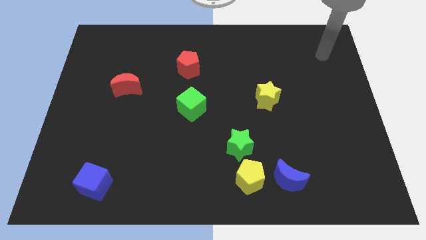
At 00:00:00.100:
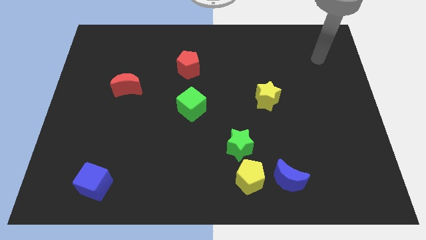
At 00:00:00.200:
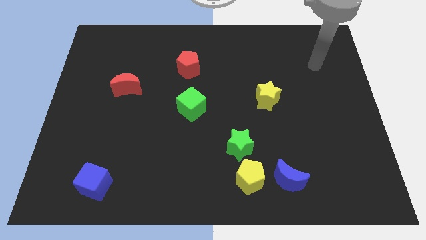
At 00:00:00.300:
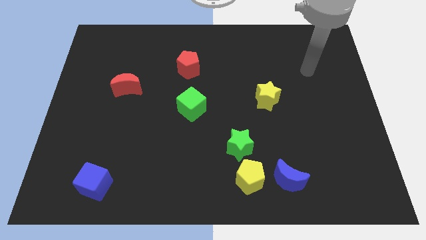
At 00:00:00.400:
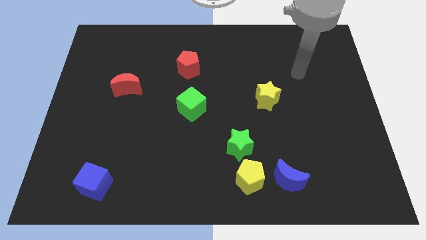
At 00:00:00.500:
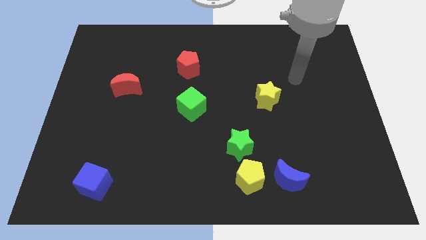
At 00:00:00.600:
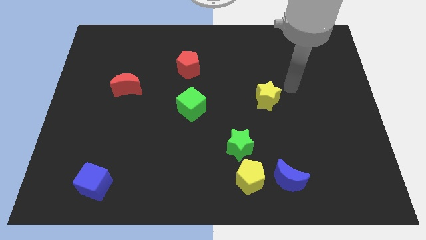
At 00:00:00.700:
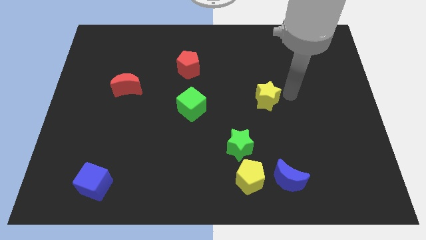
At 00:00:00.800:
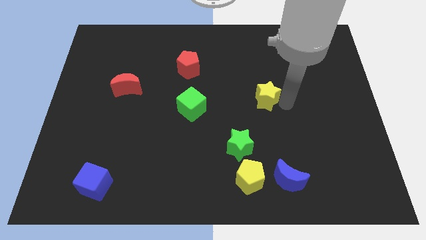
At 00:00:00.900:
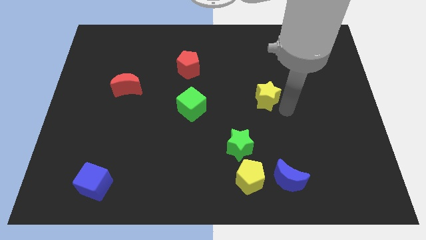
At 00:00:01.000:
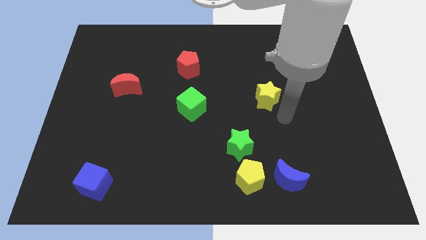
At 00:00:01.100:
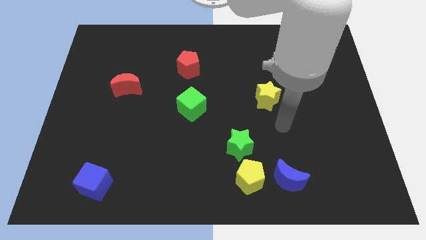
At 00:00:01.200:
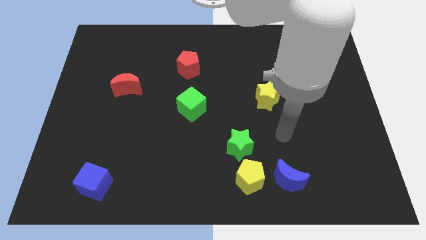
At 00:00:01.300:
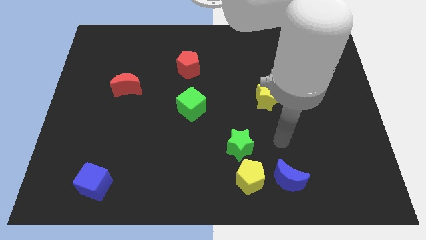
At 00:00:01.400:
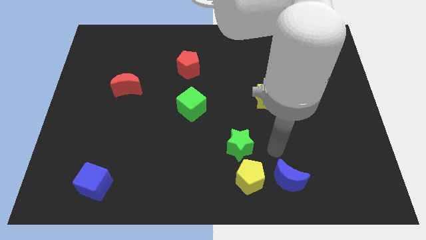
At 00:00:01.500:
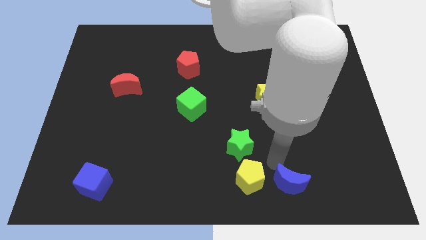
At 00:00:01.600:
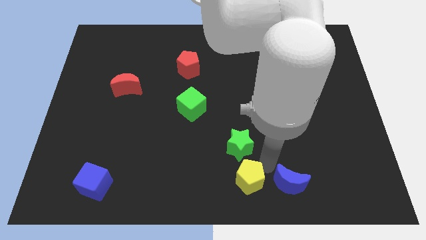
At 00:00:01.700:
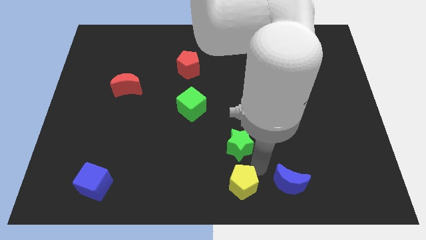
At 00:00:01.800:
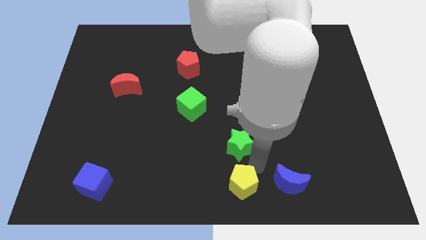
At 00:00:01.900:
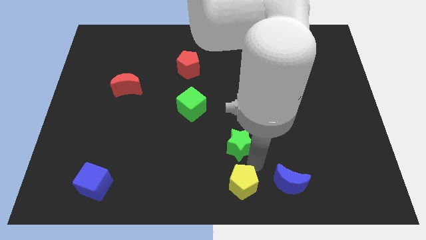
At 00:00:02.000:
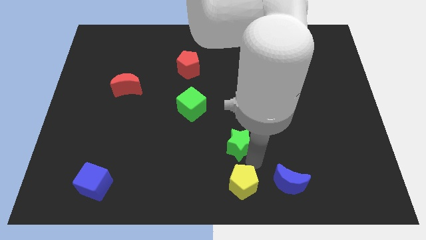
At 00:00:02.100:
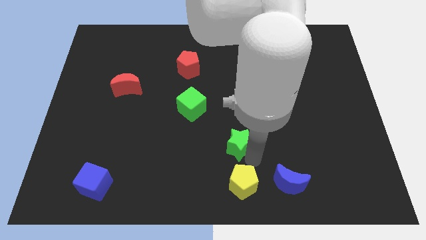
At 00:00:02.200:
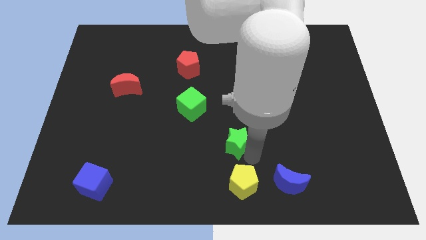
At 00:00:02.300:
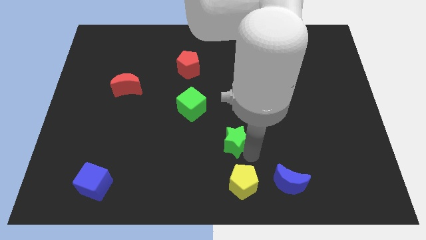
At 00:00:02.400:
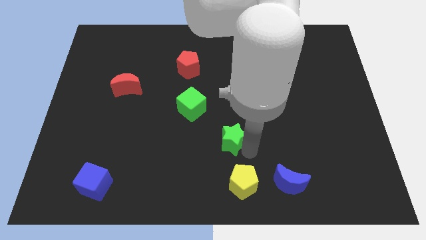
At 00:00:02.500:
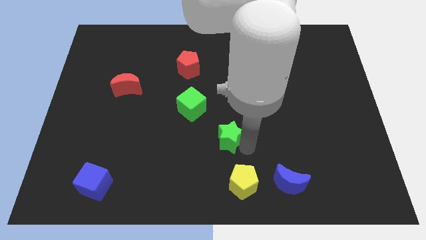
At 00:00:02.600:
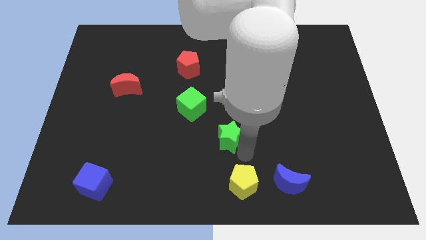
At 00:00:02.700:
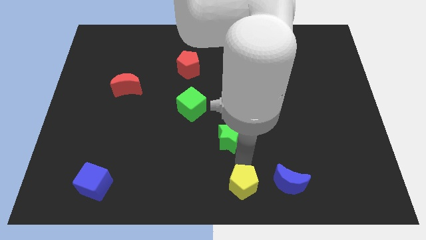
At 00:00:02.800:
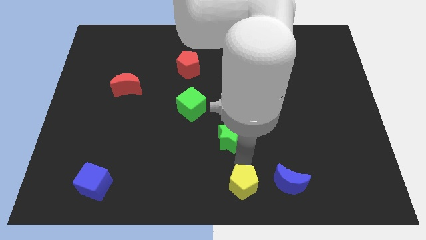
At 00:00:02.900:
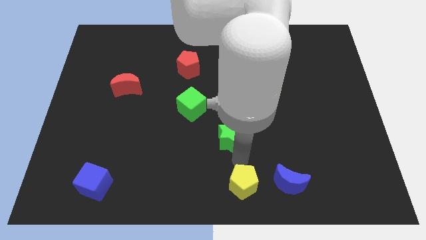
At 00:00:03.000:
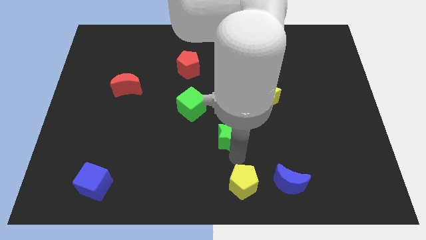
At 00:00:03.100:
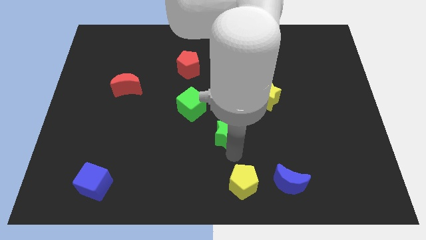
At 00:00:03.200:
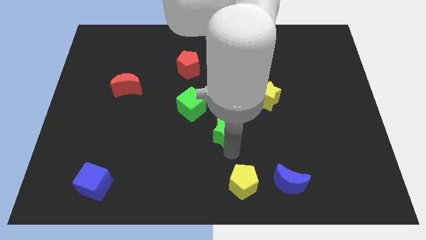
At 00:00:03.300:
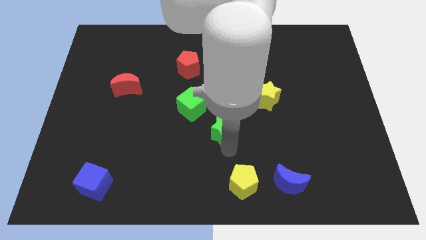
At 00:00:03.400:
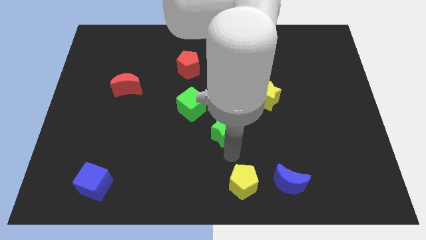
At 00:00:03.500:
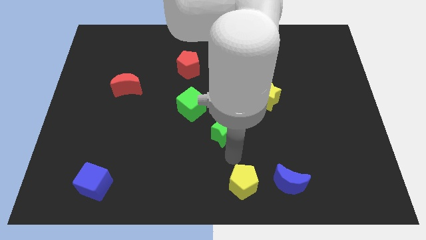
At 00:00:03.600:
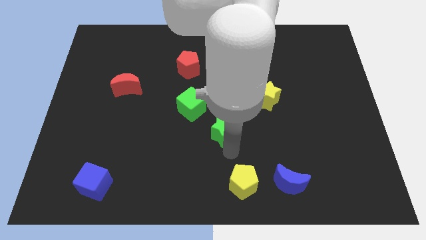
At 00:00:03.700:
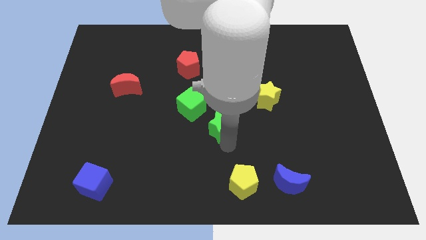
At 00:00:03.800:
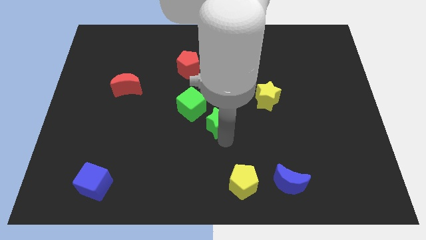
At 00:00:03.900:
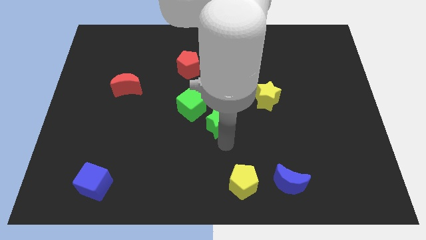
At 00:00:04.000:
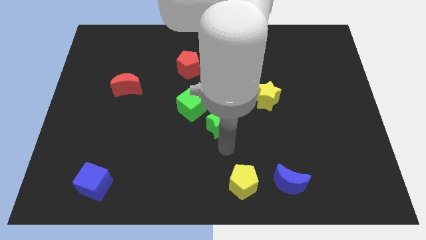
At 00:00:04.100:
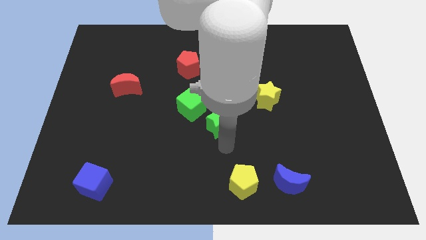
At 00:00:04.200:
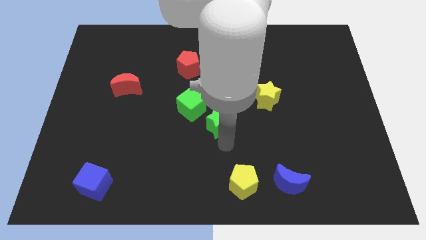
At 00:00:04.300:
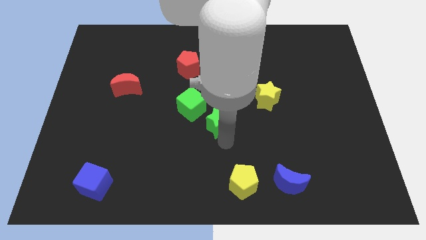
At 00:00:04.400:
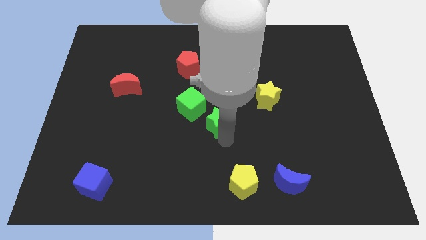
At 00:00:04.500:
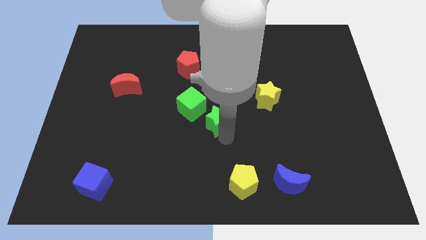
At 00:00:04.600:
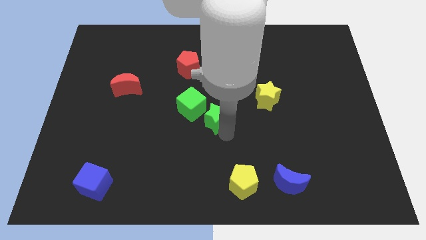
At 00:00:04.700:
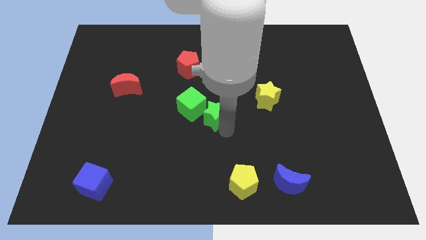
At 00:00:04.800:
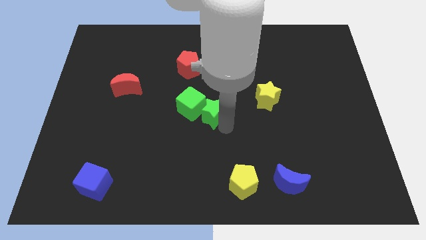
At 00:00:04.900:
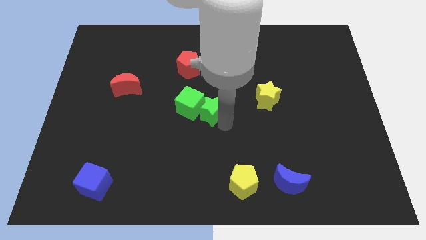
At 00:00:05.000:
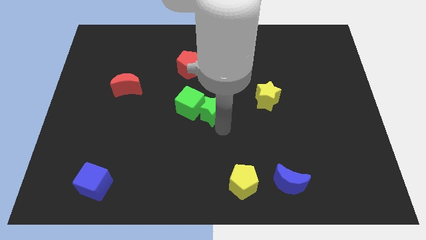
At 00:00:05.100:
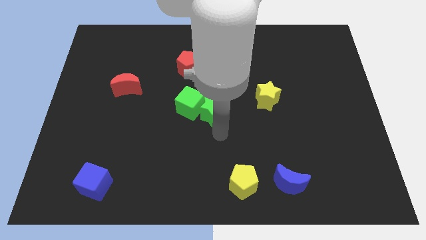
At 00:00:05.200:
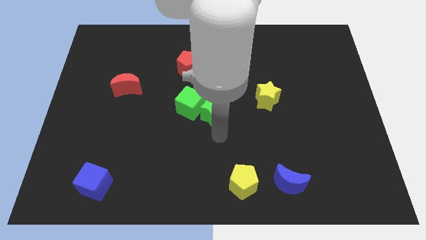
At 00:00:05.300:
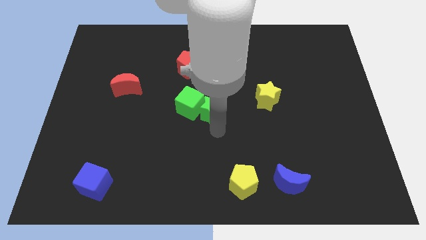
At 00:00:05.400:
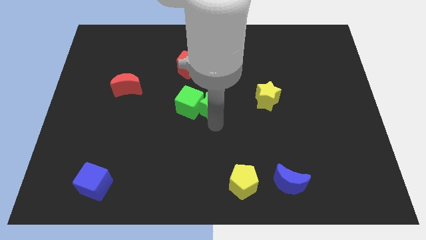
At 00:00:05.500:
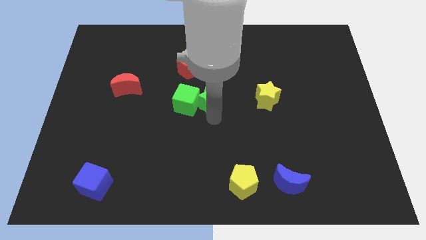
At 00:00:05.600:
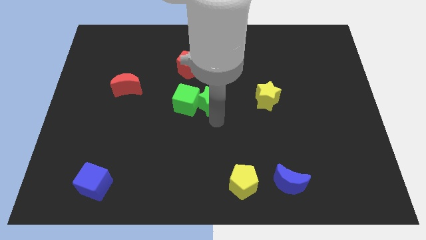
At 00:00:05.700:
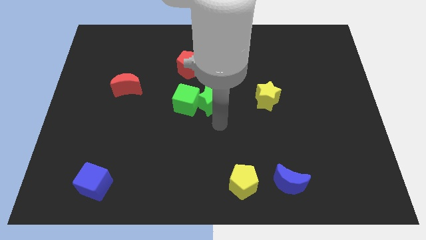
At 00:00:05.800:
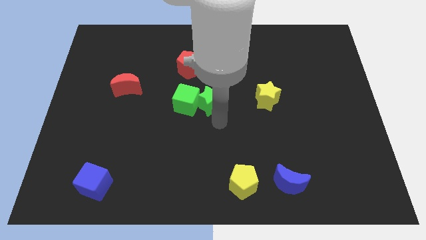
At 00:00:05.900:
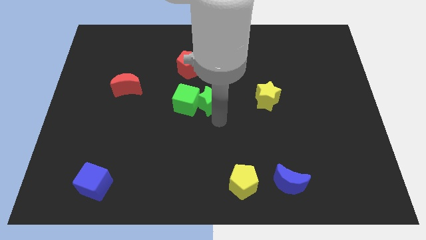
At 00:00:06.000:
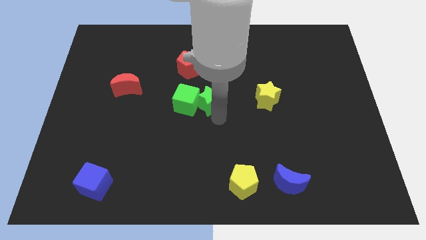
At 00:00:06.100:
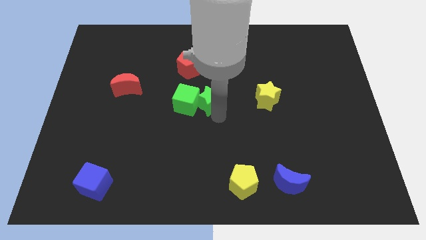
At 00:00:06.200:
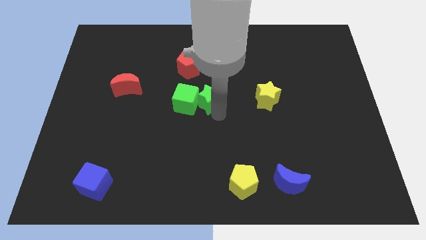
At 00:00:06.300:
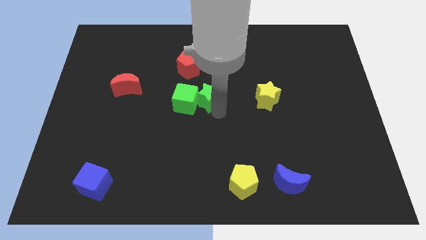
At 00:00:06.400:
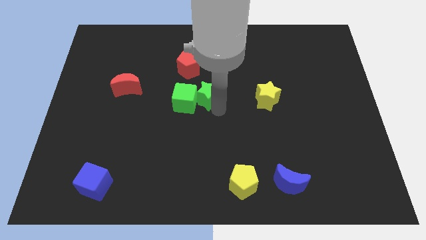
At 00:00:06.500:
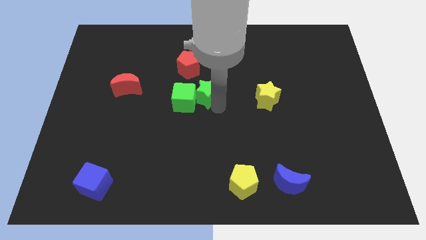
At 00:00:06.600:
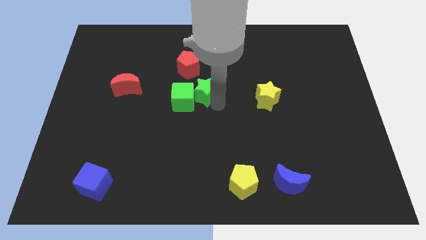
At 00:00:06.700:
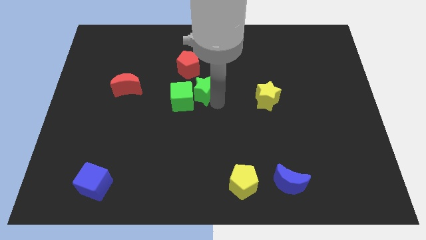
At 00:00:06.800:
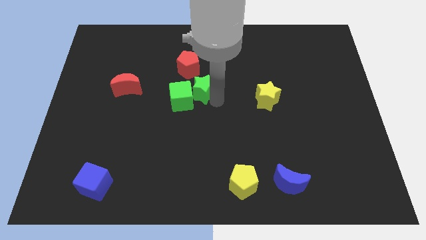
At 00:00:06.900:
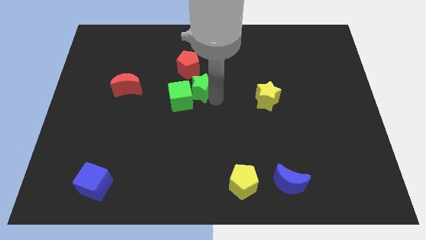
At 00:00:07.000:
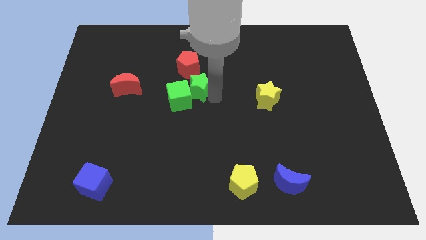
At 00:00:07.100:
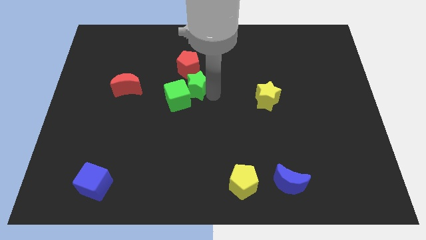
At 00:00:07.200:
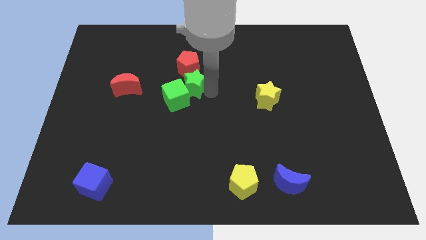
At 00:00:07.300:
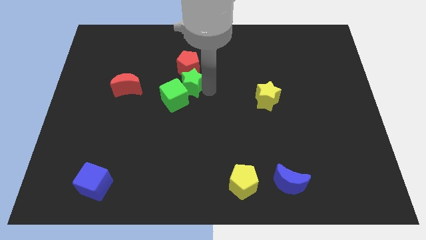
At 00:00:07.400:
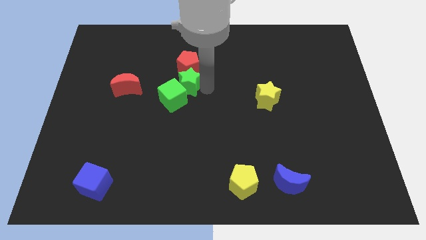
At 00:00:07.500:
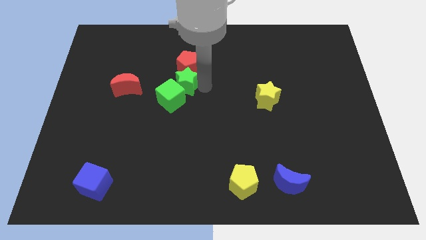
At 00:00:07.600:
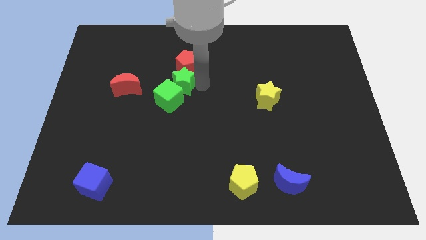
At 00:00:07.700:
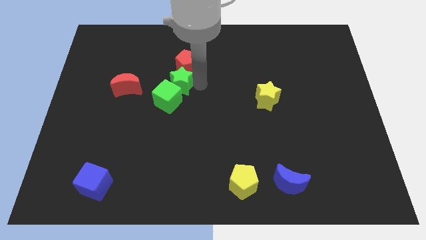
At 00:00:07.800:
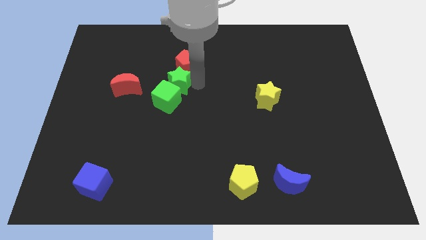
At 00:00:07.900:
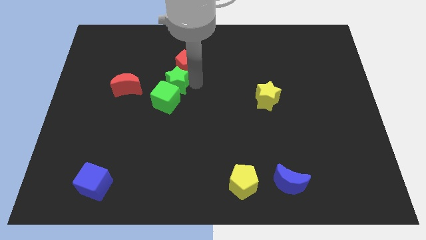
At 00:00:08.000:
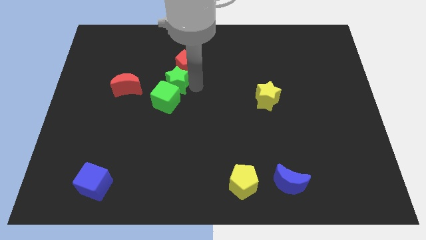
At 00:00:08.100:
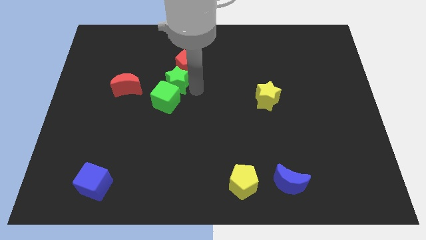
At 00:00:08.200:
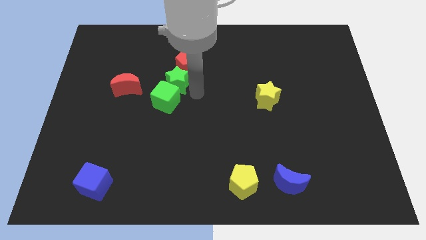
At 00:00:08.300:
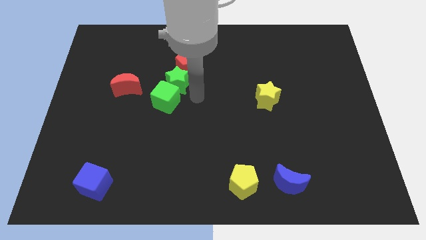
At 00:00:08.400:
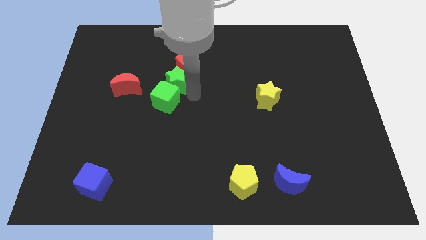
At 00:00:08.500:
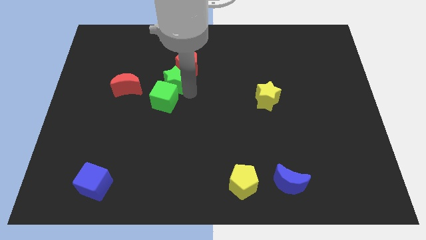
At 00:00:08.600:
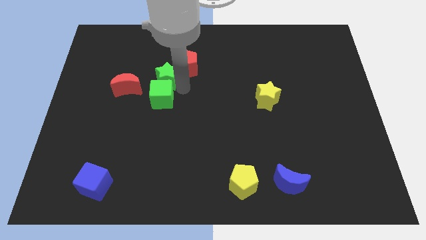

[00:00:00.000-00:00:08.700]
slide the green star to the left side of the red pentagon
